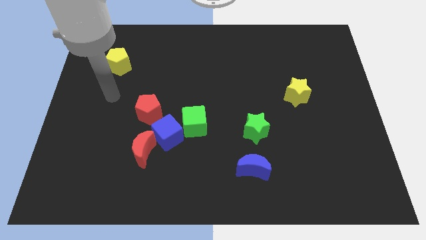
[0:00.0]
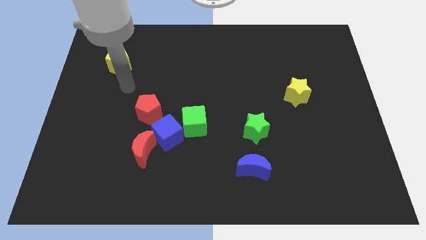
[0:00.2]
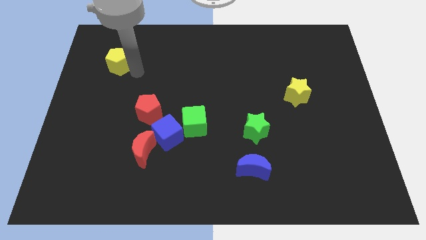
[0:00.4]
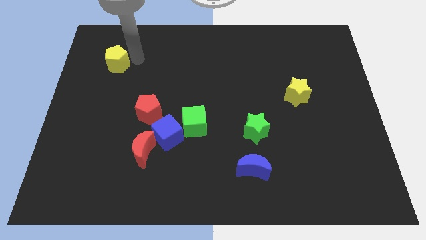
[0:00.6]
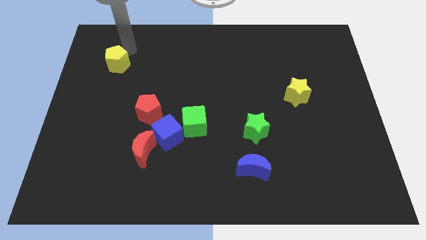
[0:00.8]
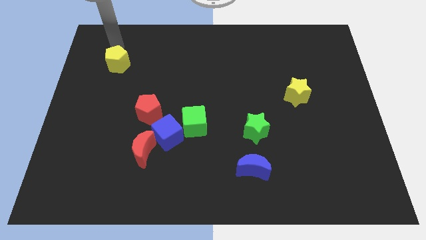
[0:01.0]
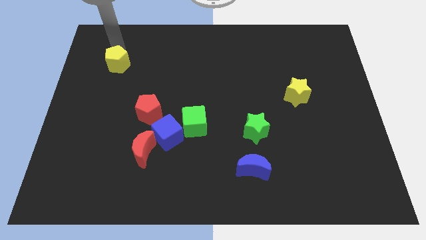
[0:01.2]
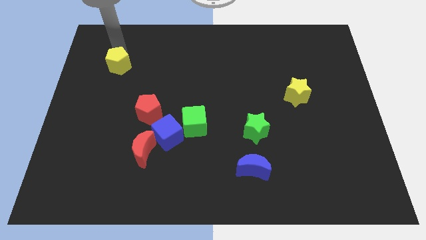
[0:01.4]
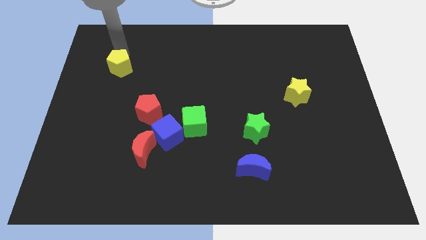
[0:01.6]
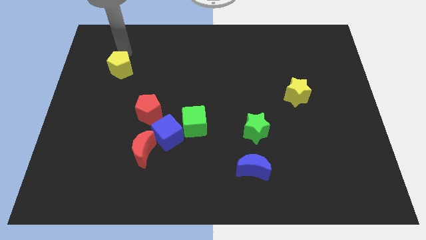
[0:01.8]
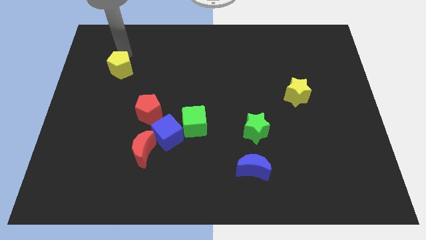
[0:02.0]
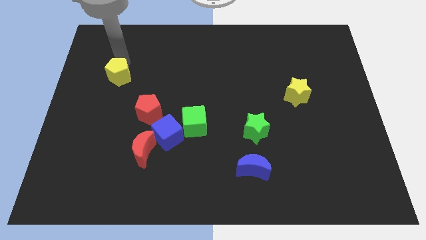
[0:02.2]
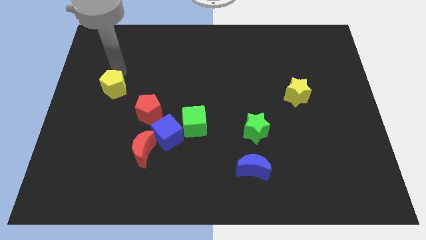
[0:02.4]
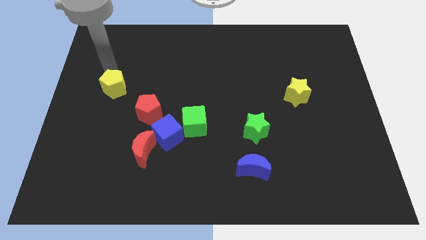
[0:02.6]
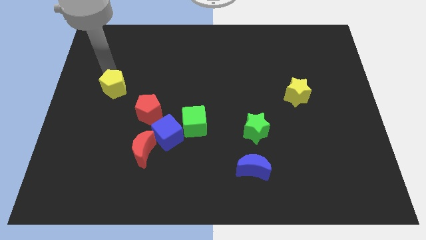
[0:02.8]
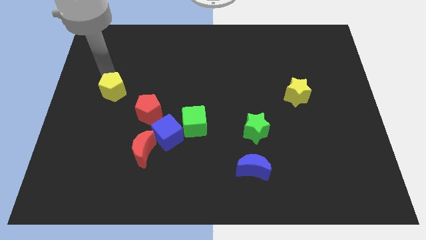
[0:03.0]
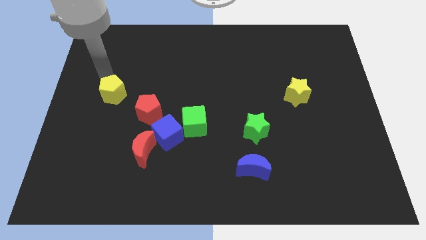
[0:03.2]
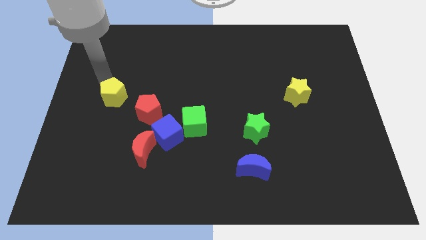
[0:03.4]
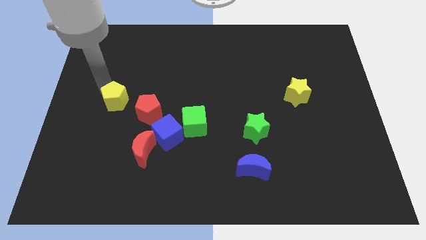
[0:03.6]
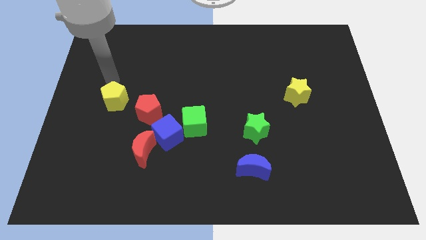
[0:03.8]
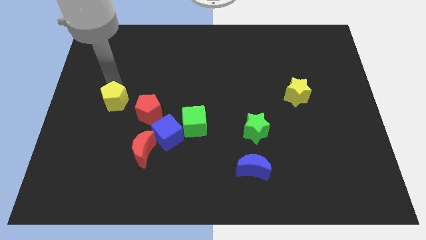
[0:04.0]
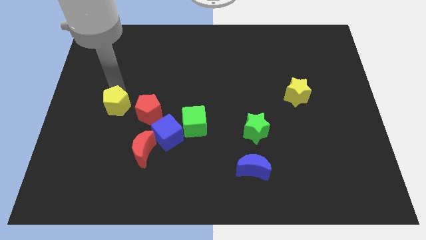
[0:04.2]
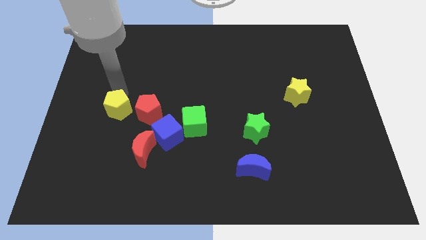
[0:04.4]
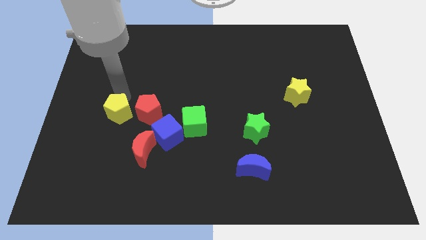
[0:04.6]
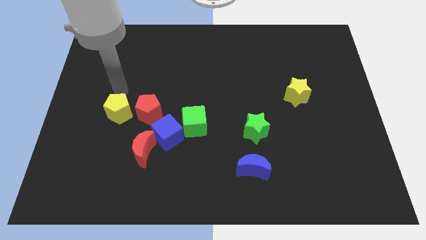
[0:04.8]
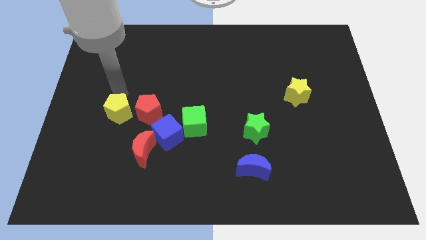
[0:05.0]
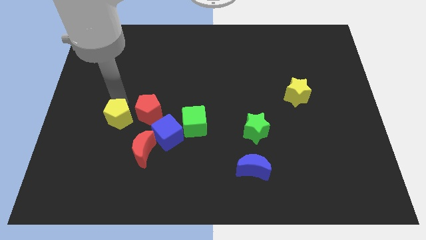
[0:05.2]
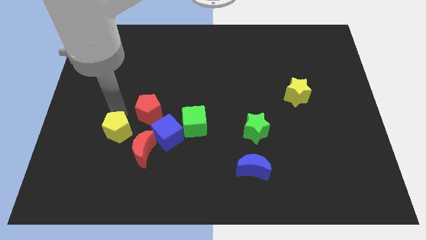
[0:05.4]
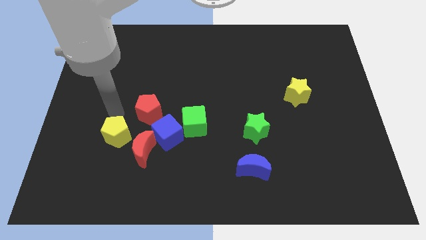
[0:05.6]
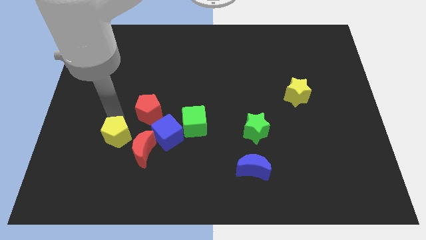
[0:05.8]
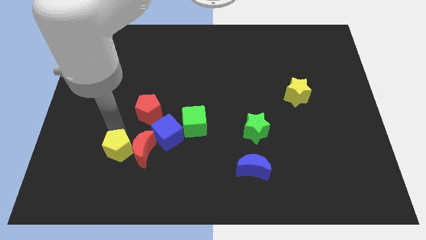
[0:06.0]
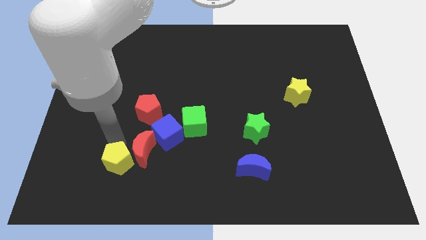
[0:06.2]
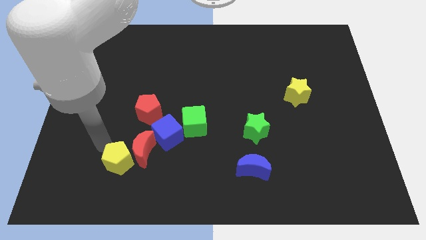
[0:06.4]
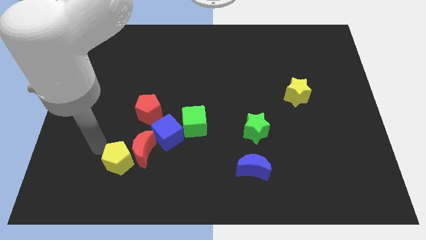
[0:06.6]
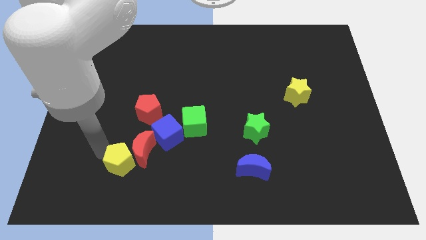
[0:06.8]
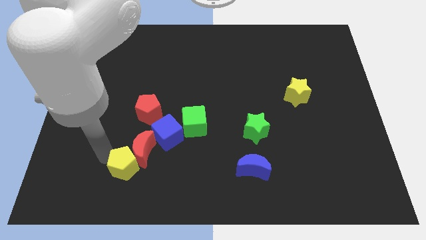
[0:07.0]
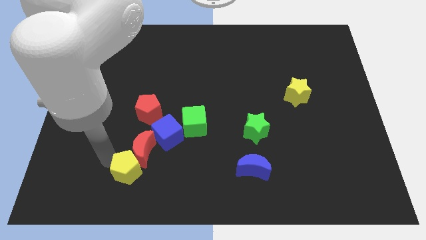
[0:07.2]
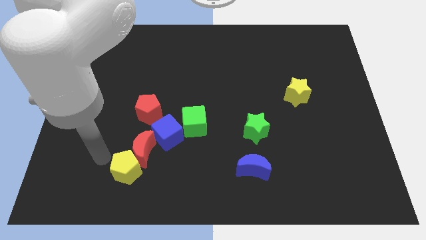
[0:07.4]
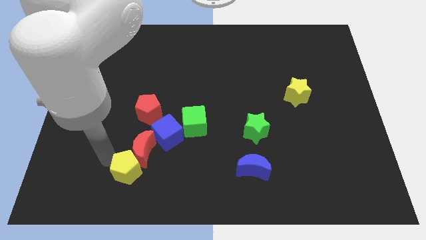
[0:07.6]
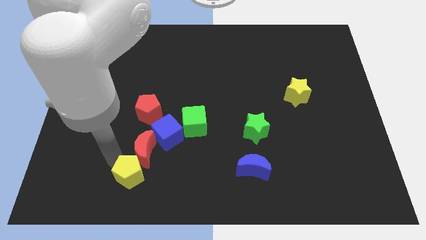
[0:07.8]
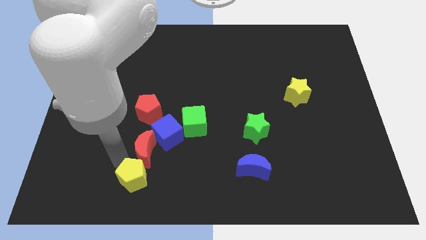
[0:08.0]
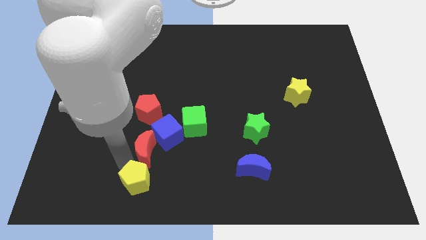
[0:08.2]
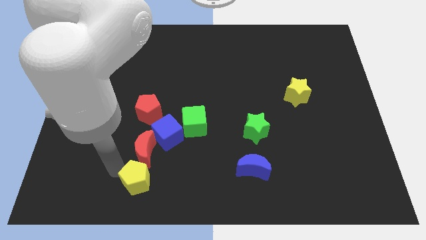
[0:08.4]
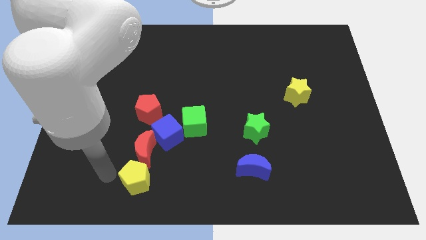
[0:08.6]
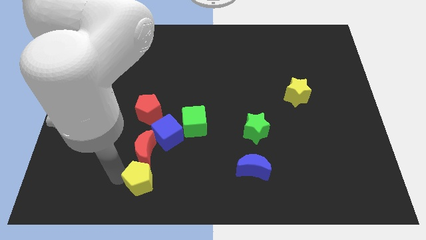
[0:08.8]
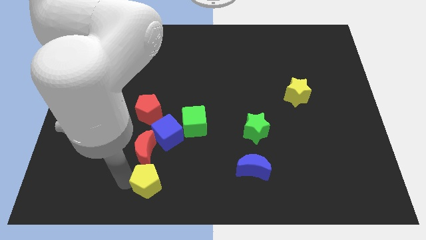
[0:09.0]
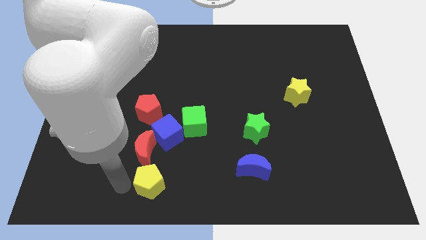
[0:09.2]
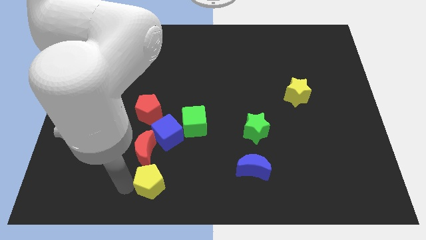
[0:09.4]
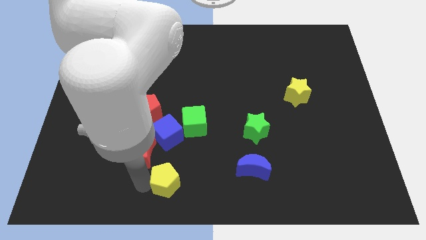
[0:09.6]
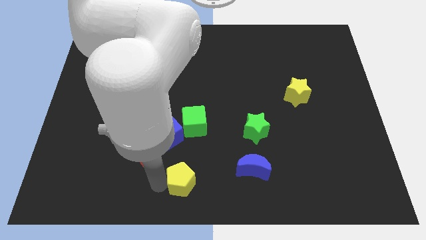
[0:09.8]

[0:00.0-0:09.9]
slide the yellow pentagon to the left of the blue moon

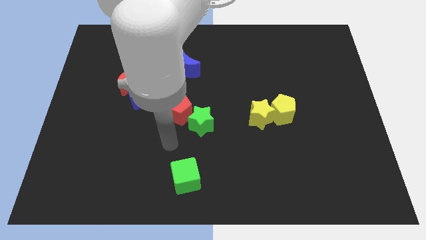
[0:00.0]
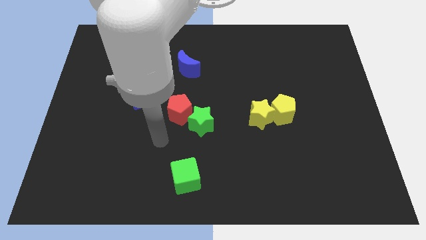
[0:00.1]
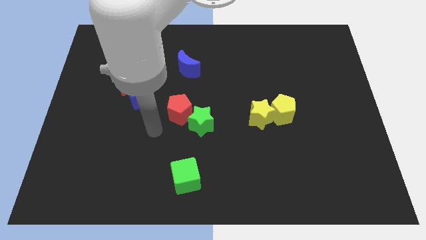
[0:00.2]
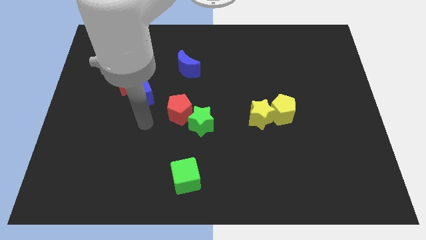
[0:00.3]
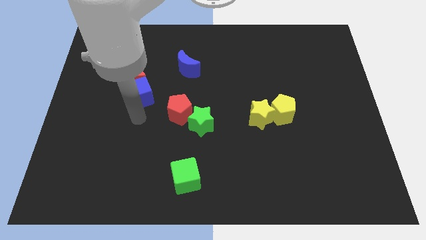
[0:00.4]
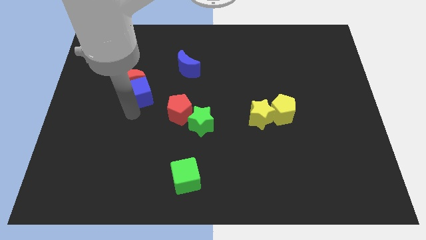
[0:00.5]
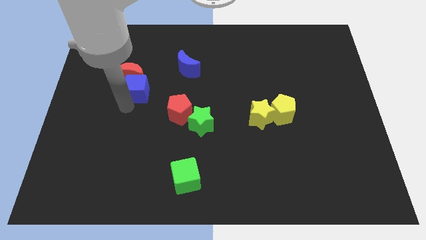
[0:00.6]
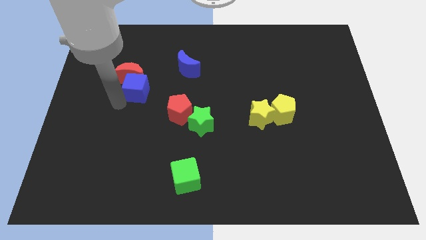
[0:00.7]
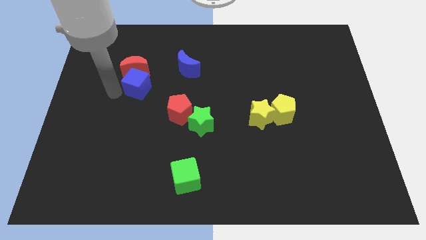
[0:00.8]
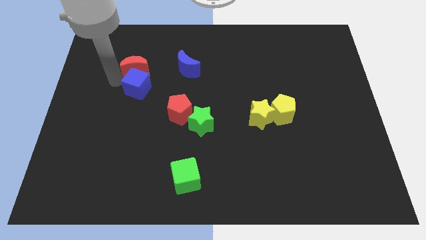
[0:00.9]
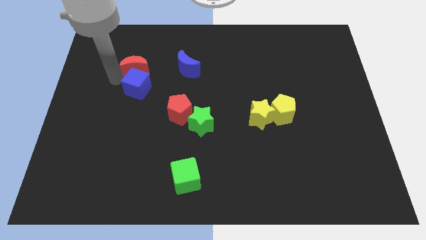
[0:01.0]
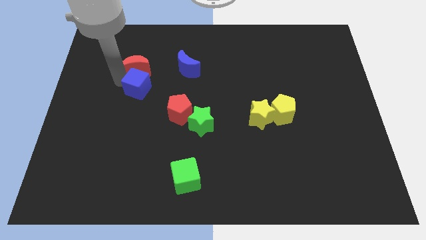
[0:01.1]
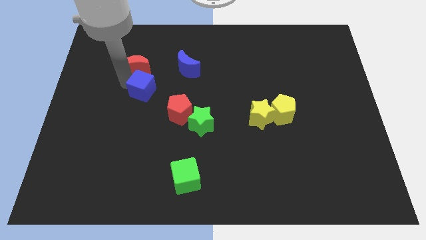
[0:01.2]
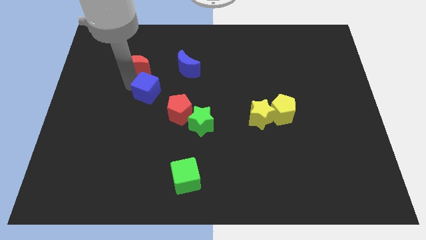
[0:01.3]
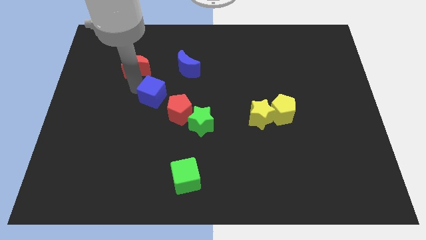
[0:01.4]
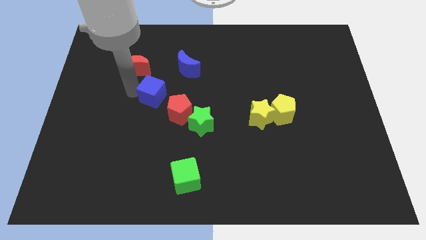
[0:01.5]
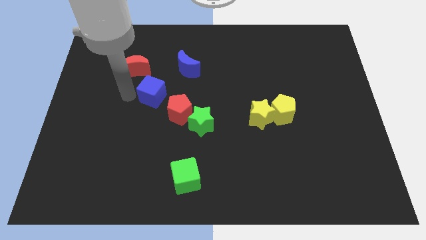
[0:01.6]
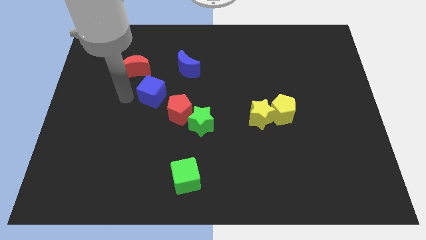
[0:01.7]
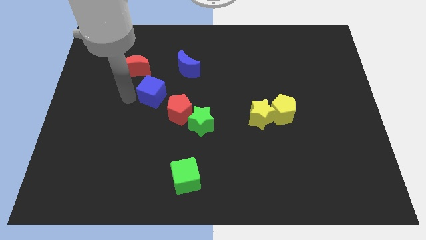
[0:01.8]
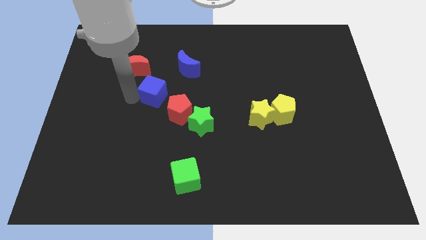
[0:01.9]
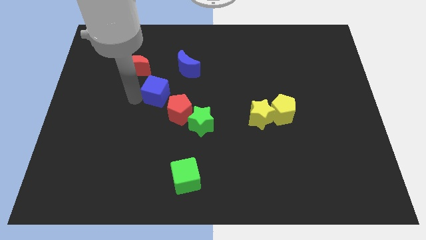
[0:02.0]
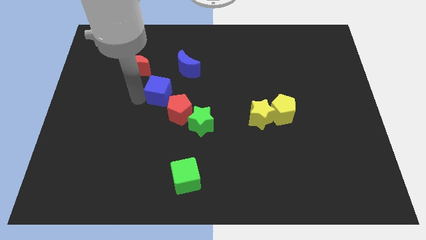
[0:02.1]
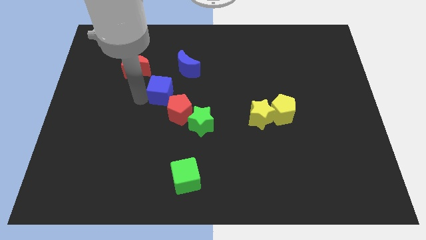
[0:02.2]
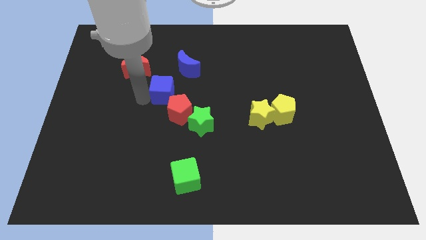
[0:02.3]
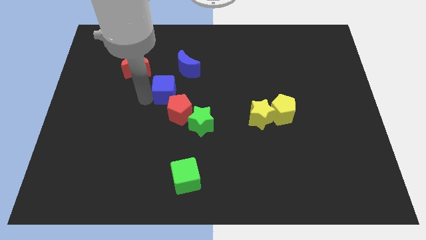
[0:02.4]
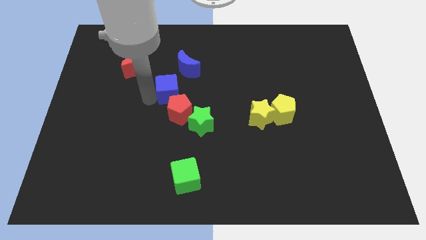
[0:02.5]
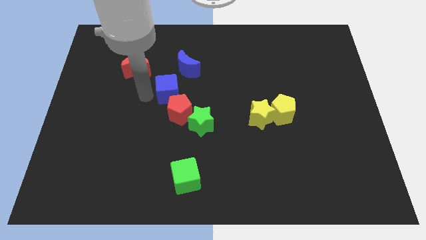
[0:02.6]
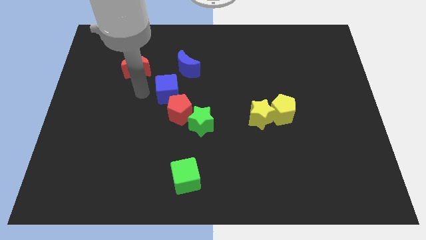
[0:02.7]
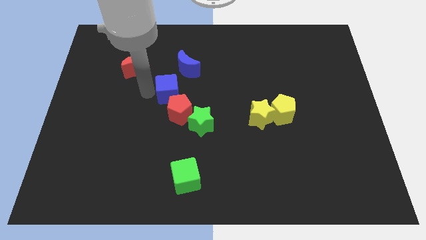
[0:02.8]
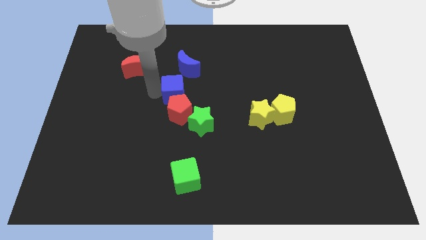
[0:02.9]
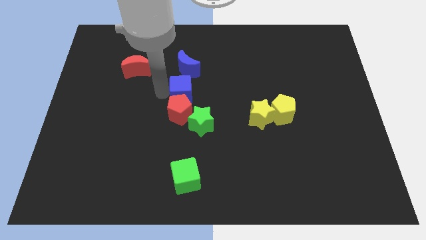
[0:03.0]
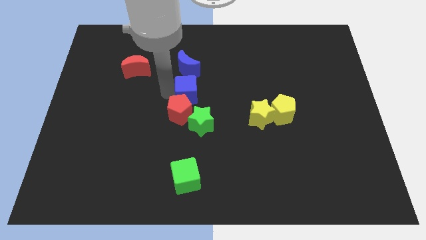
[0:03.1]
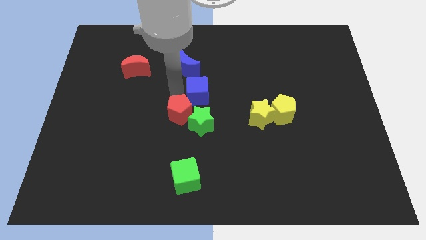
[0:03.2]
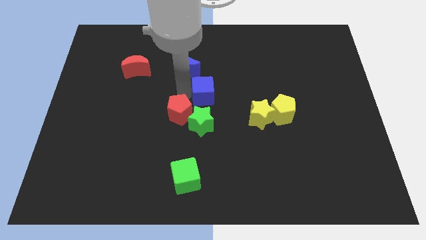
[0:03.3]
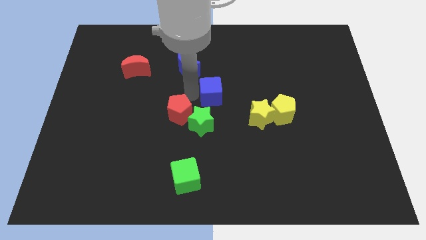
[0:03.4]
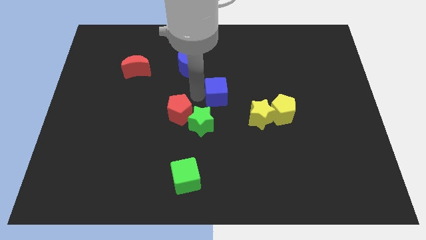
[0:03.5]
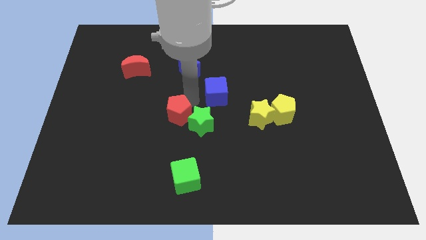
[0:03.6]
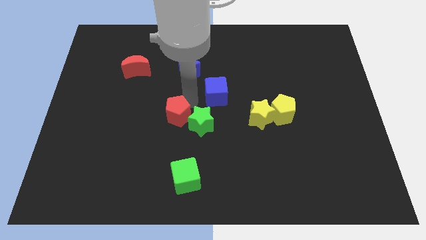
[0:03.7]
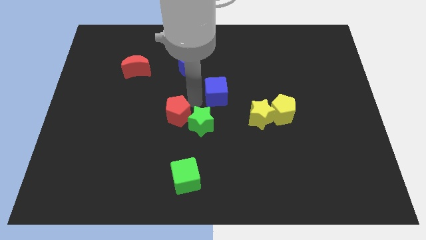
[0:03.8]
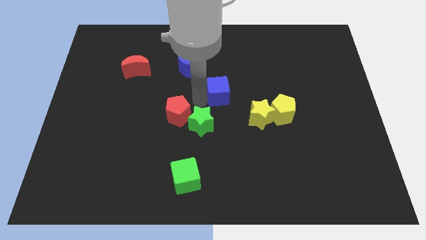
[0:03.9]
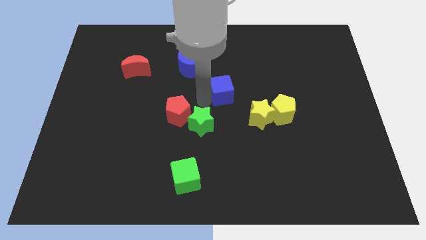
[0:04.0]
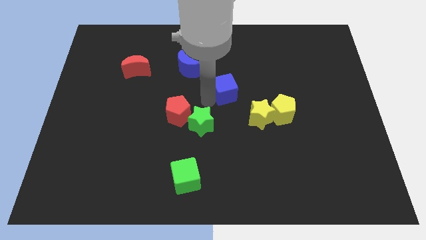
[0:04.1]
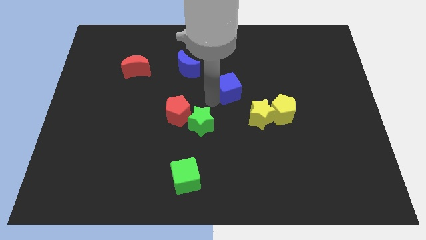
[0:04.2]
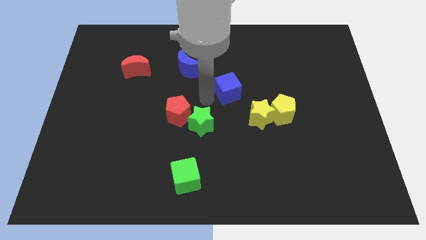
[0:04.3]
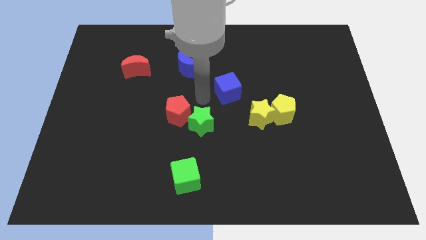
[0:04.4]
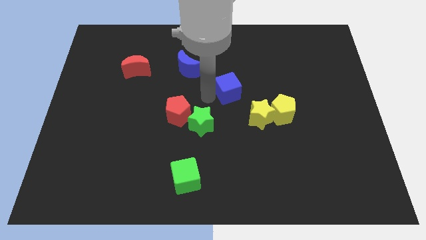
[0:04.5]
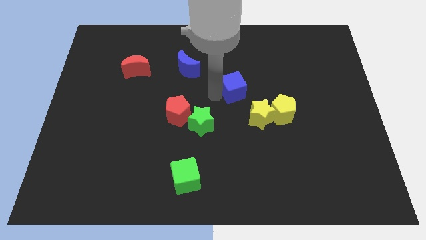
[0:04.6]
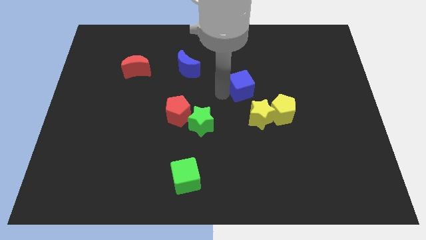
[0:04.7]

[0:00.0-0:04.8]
push the blue cube to the top of the yellow star
